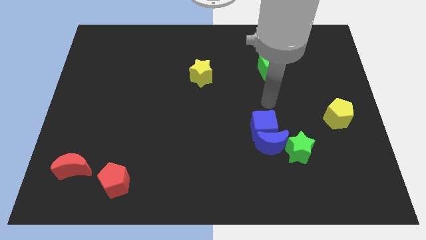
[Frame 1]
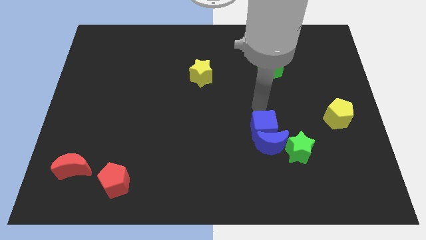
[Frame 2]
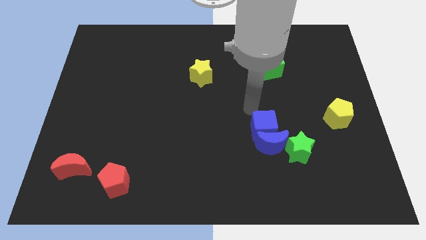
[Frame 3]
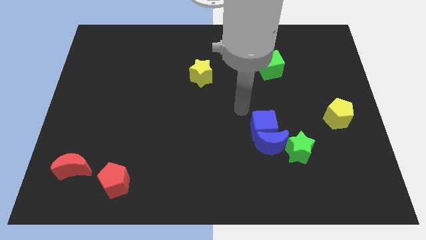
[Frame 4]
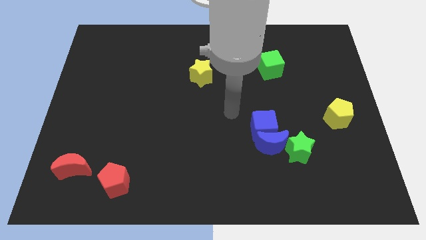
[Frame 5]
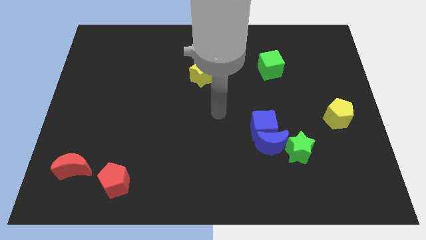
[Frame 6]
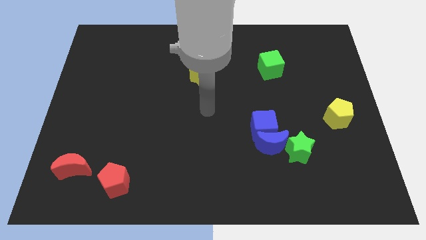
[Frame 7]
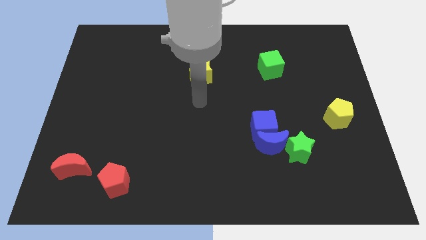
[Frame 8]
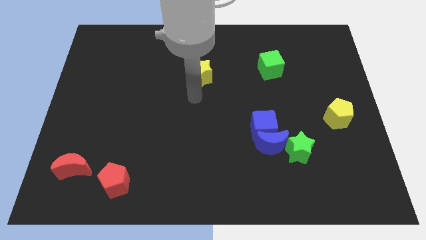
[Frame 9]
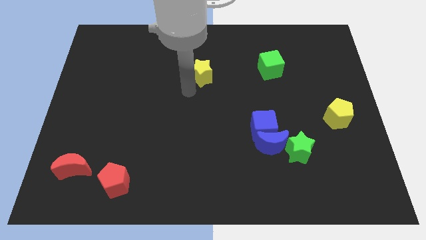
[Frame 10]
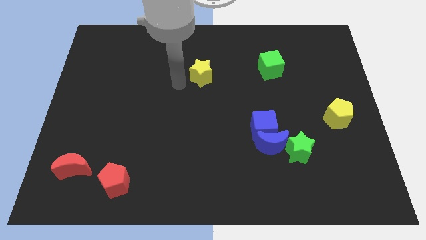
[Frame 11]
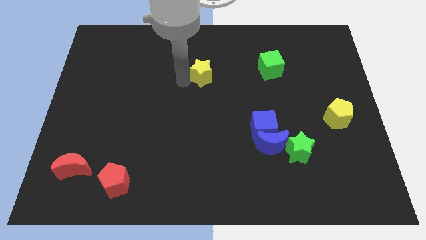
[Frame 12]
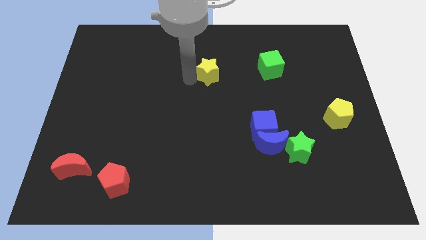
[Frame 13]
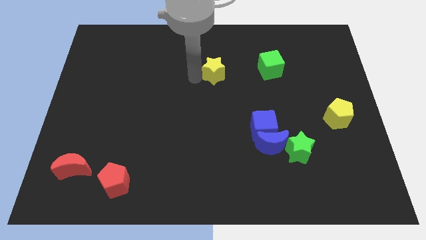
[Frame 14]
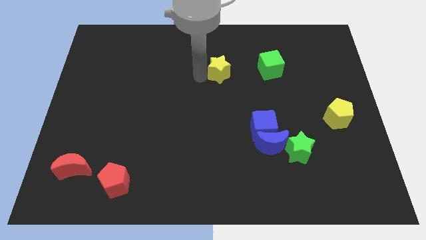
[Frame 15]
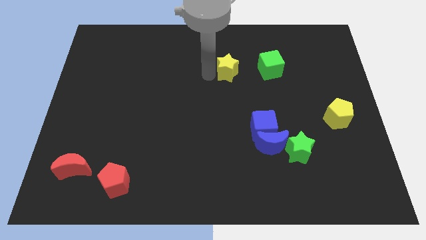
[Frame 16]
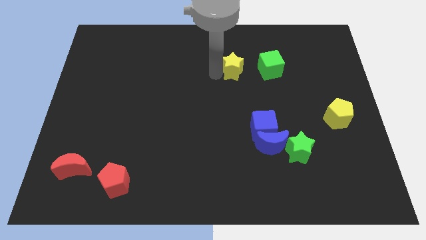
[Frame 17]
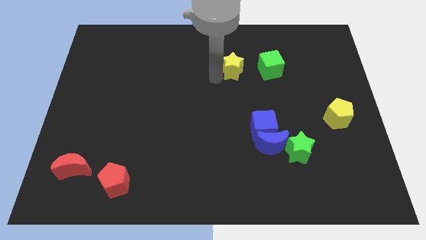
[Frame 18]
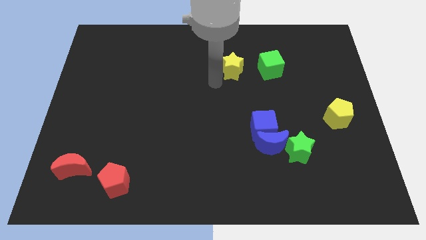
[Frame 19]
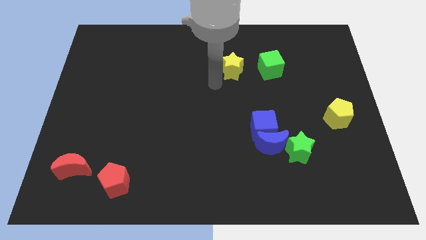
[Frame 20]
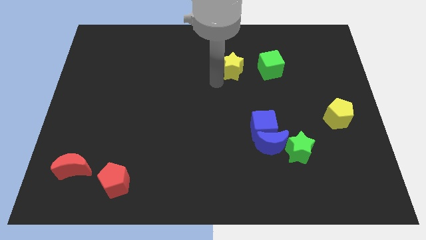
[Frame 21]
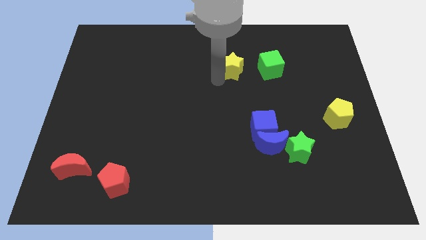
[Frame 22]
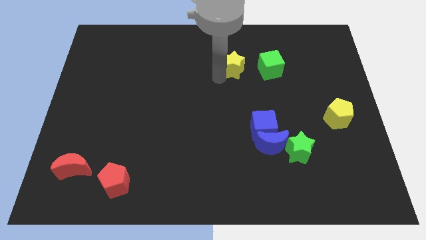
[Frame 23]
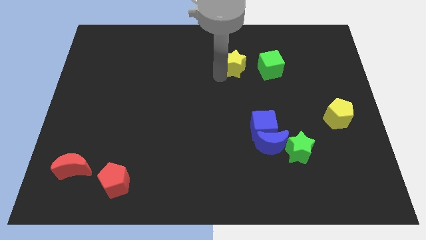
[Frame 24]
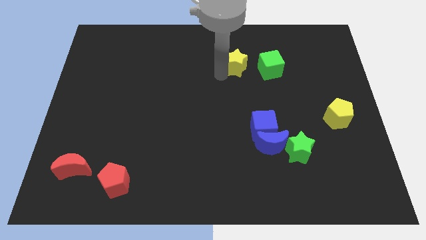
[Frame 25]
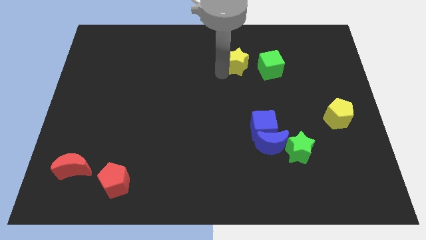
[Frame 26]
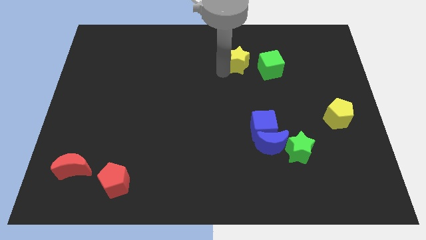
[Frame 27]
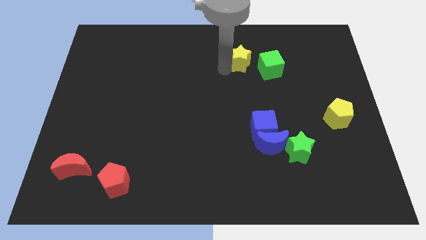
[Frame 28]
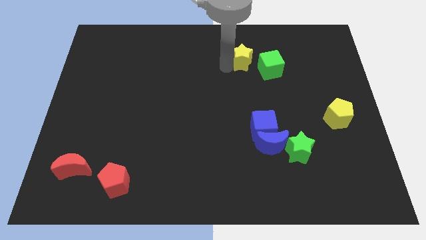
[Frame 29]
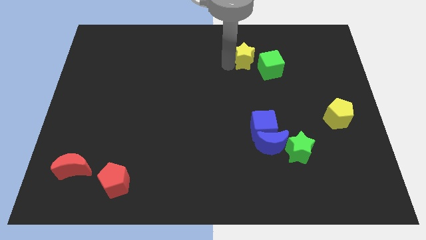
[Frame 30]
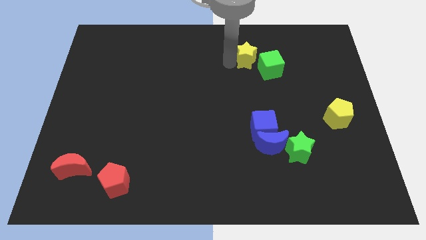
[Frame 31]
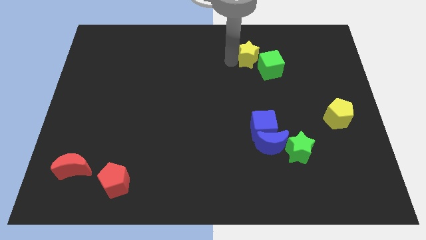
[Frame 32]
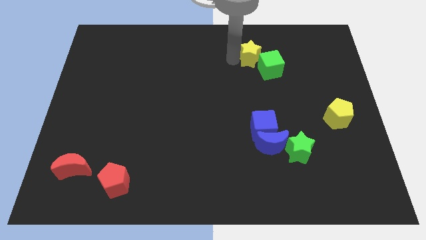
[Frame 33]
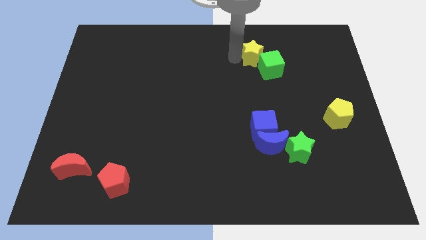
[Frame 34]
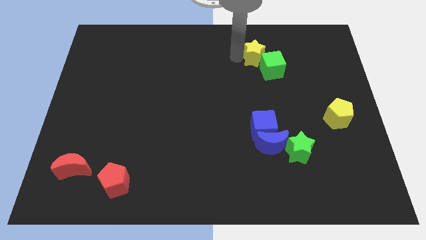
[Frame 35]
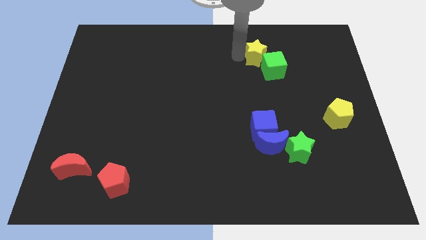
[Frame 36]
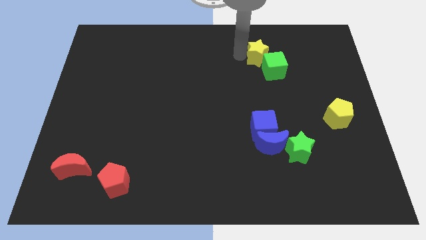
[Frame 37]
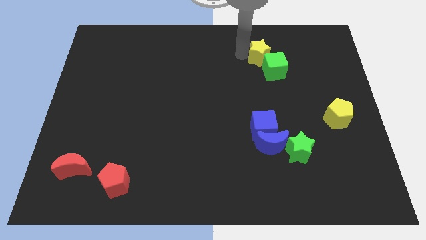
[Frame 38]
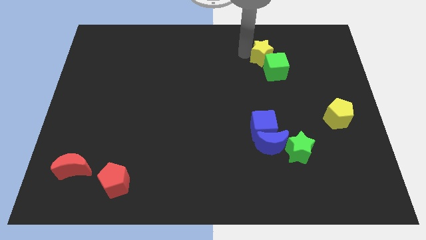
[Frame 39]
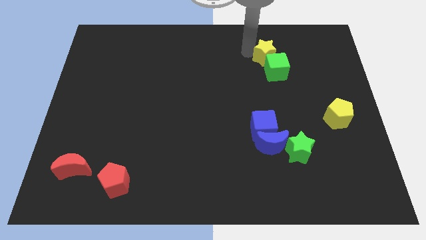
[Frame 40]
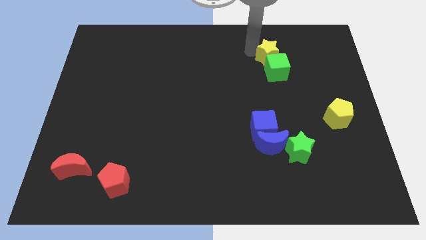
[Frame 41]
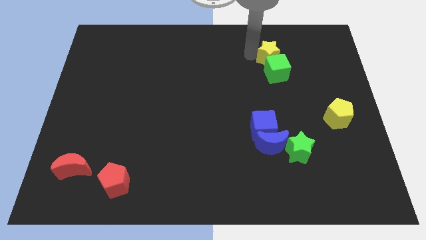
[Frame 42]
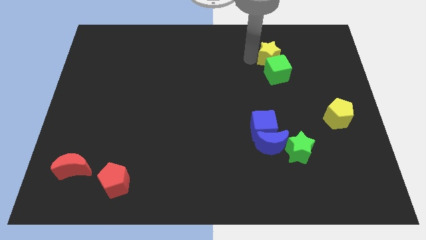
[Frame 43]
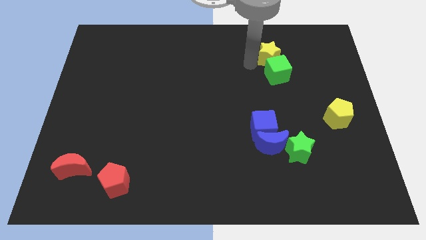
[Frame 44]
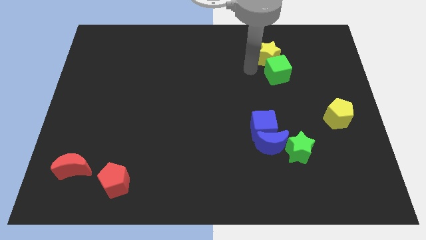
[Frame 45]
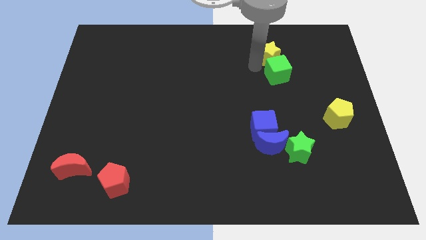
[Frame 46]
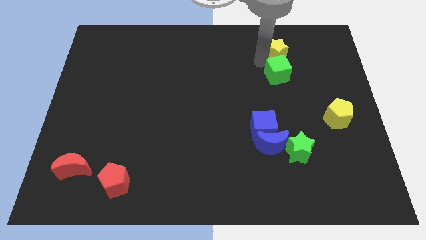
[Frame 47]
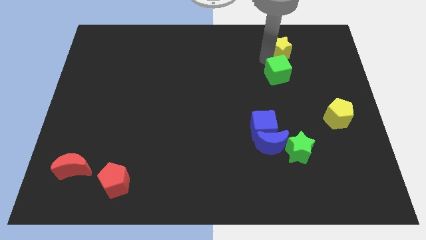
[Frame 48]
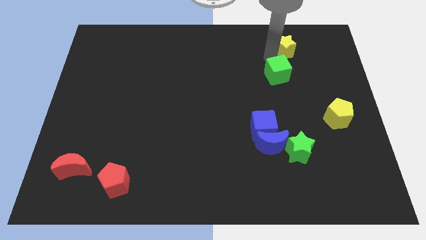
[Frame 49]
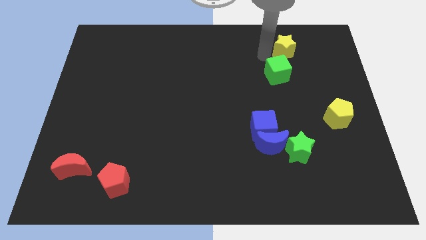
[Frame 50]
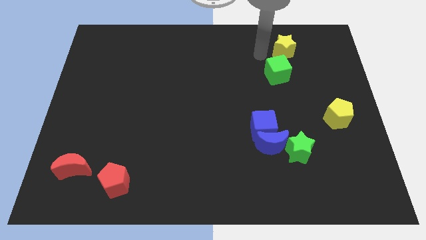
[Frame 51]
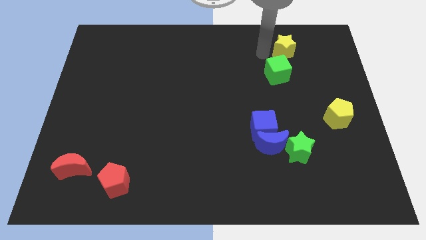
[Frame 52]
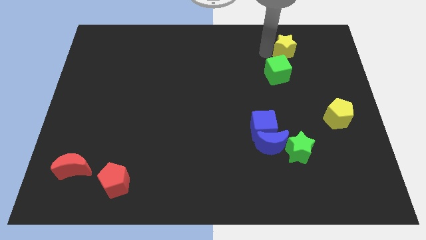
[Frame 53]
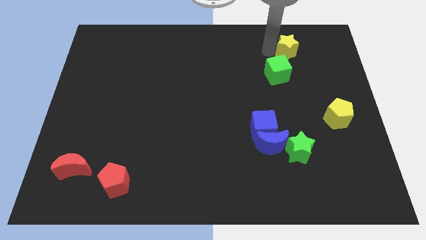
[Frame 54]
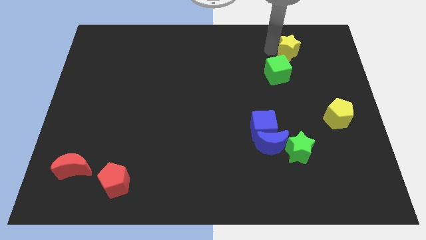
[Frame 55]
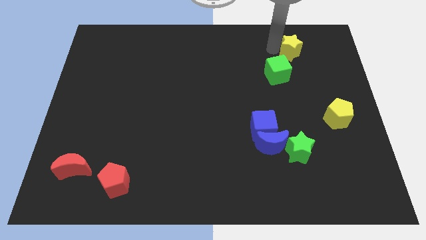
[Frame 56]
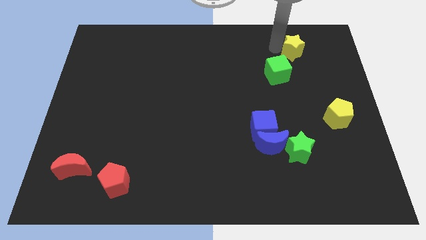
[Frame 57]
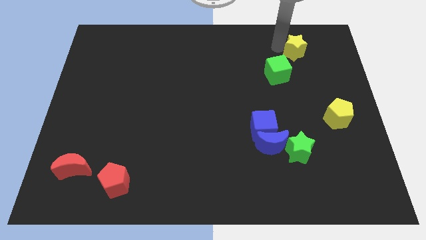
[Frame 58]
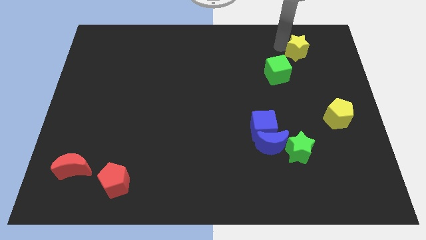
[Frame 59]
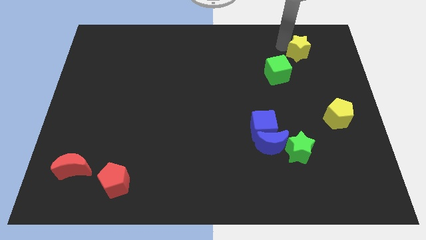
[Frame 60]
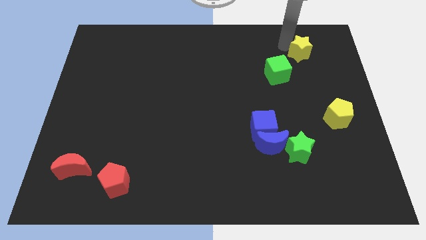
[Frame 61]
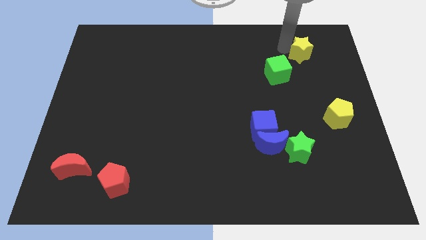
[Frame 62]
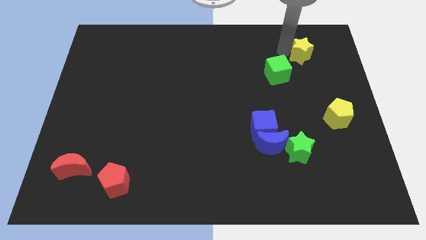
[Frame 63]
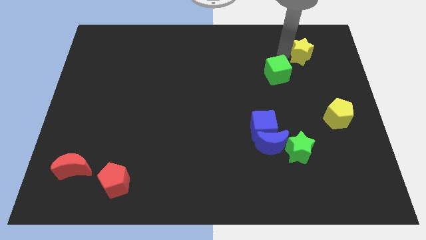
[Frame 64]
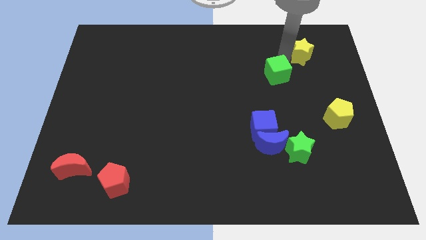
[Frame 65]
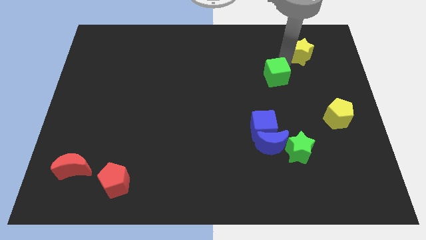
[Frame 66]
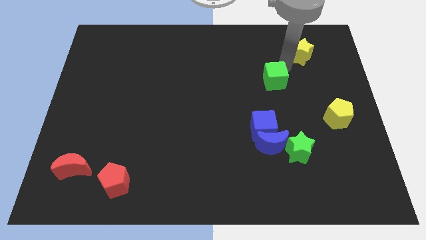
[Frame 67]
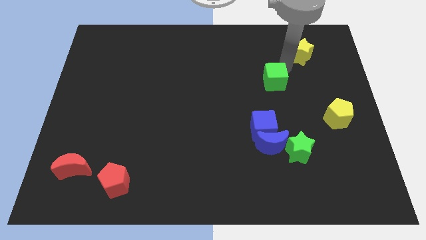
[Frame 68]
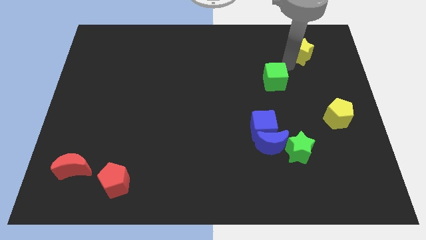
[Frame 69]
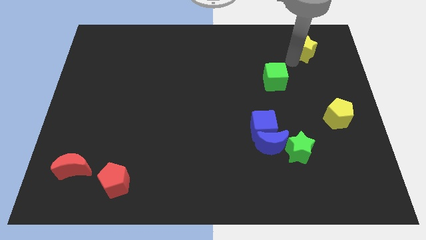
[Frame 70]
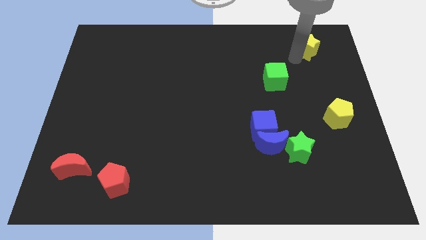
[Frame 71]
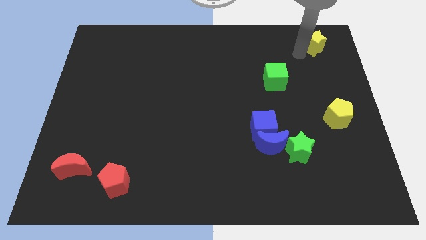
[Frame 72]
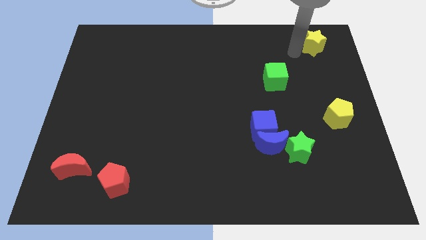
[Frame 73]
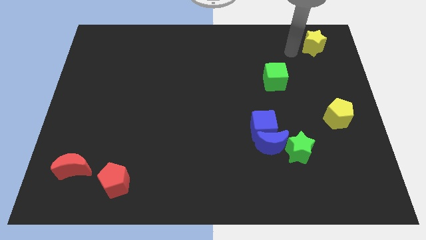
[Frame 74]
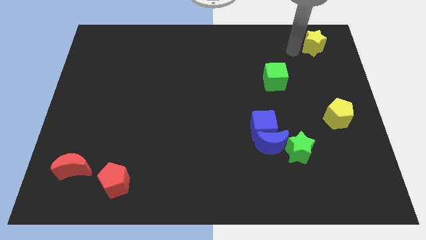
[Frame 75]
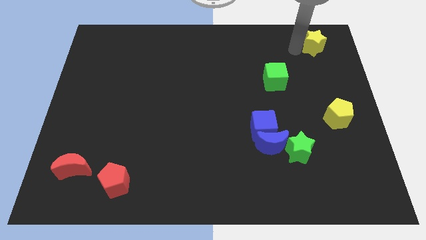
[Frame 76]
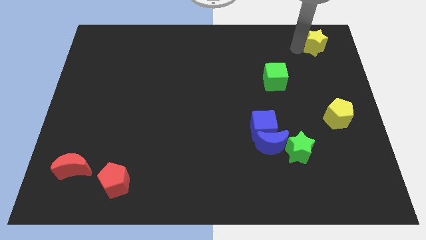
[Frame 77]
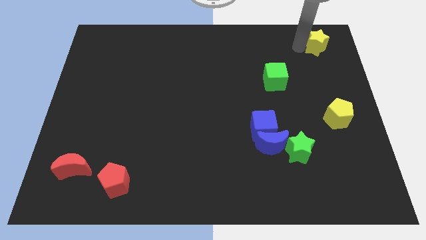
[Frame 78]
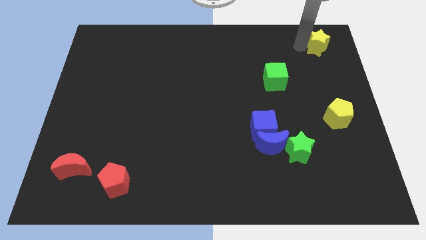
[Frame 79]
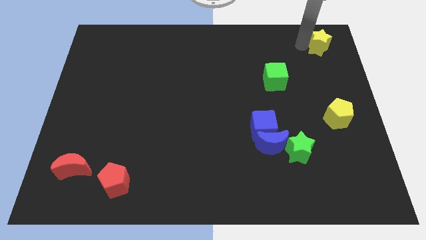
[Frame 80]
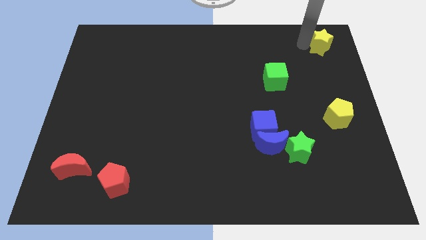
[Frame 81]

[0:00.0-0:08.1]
put the yellow star to the top right corner
